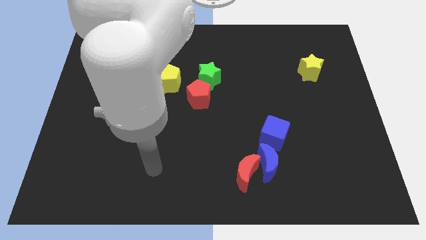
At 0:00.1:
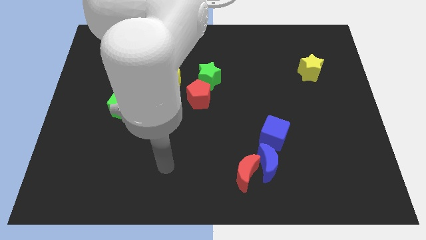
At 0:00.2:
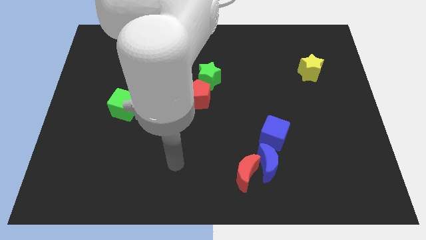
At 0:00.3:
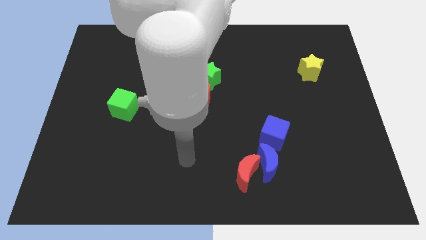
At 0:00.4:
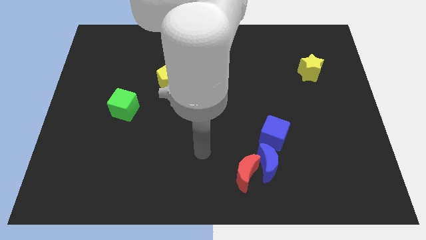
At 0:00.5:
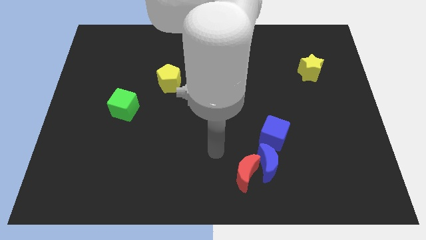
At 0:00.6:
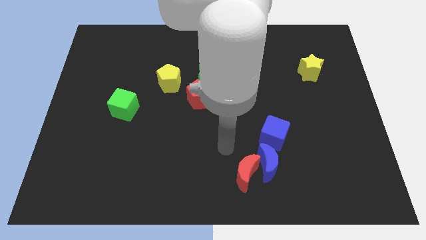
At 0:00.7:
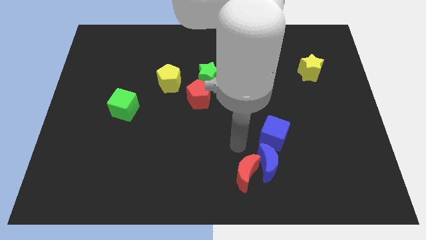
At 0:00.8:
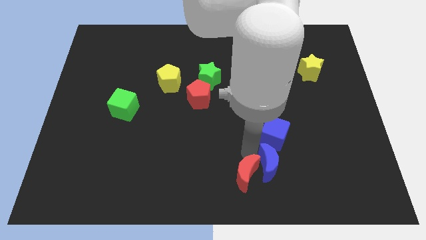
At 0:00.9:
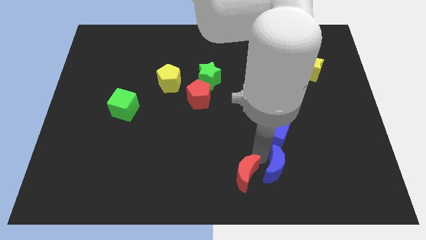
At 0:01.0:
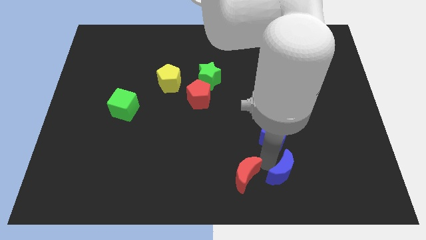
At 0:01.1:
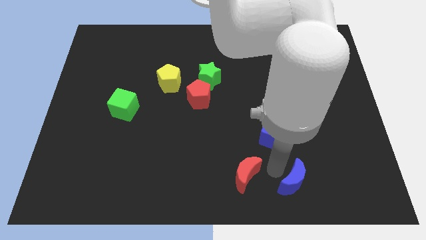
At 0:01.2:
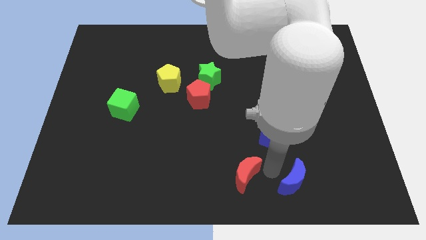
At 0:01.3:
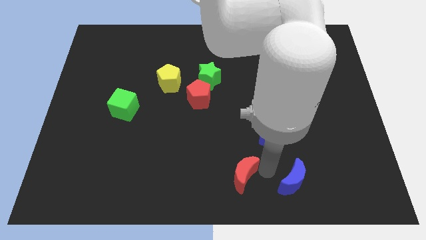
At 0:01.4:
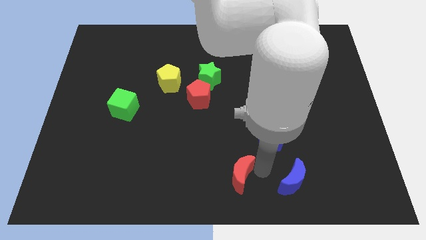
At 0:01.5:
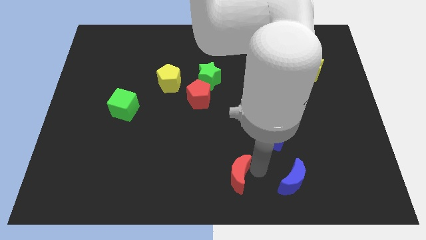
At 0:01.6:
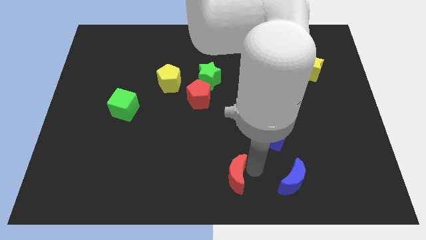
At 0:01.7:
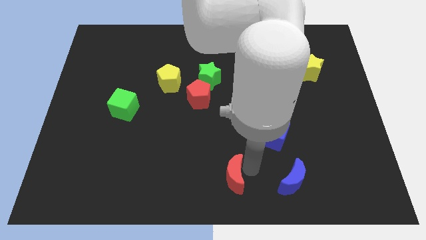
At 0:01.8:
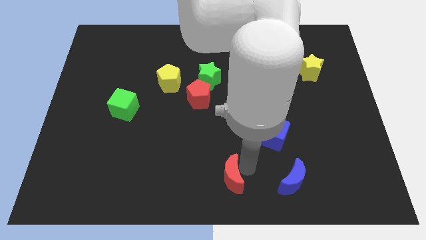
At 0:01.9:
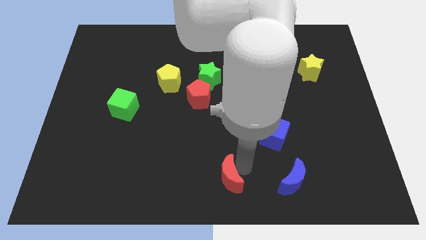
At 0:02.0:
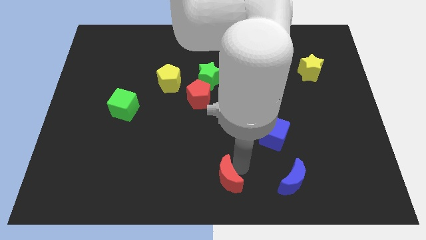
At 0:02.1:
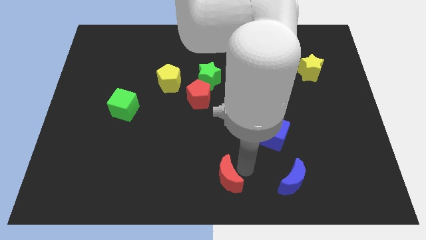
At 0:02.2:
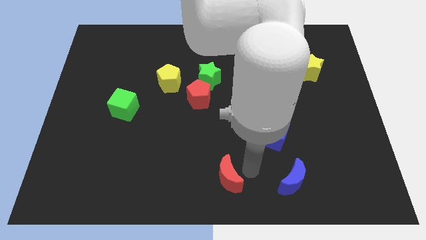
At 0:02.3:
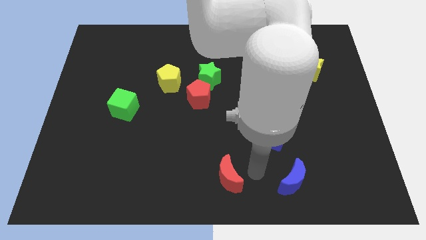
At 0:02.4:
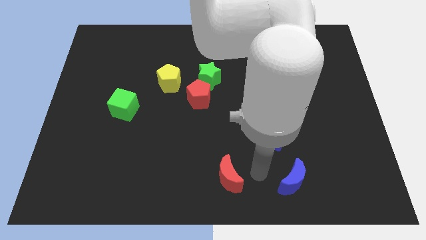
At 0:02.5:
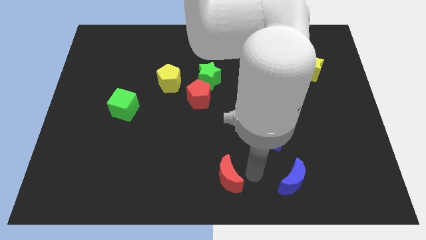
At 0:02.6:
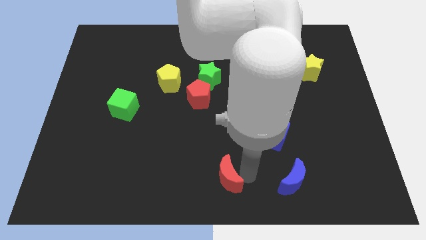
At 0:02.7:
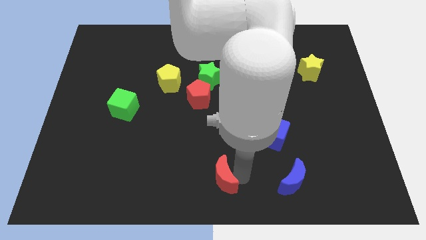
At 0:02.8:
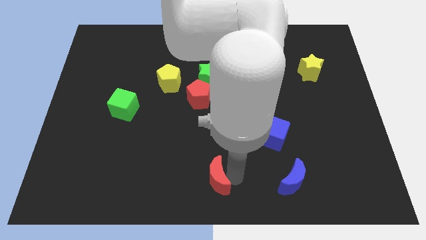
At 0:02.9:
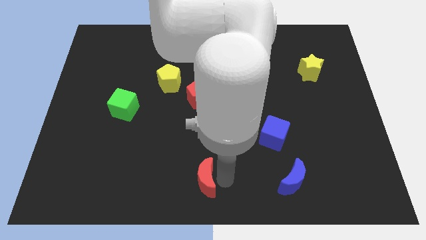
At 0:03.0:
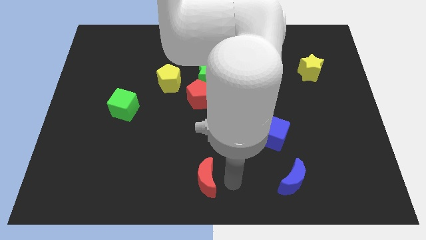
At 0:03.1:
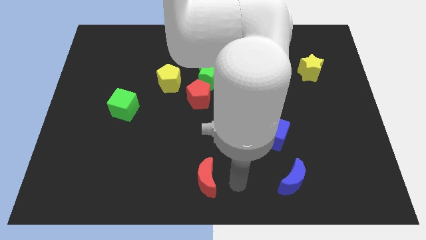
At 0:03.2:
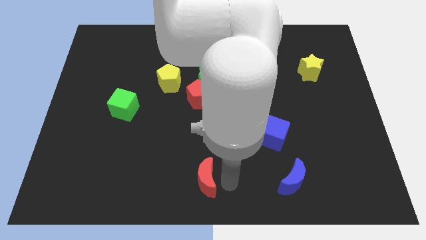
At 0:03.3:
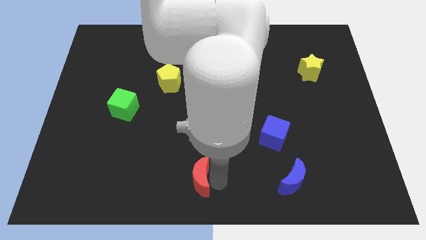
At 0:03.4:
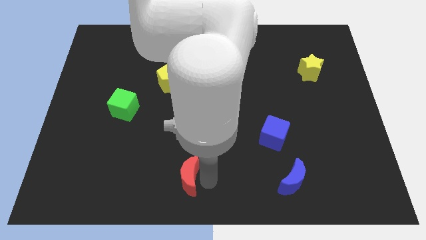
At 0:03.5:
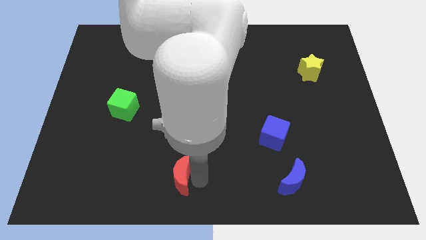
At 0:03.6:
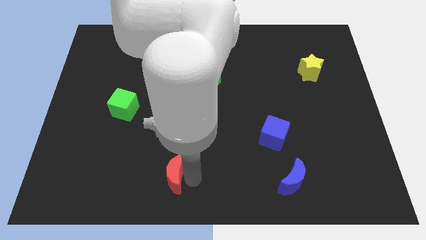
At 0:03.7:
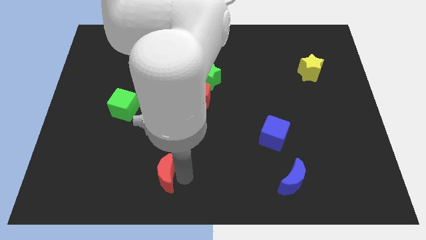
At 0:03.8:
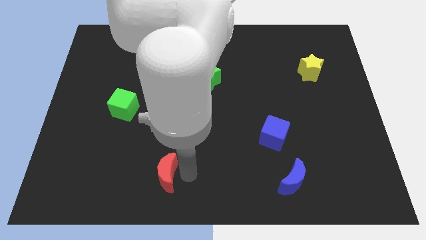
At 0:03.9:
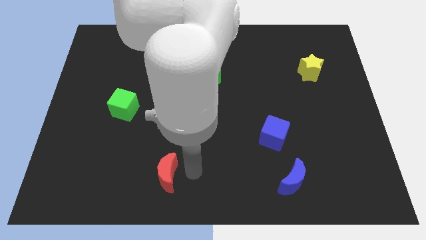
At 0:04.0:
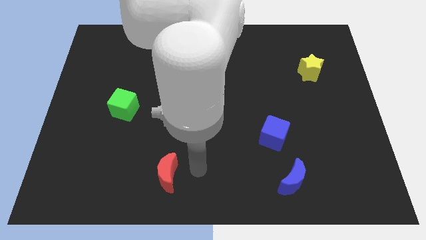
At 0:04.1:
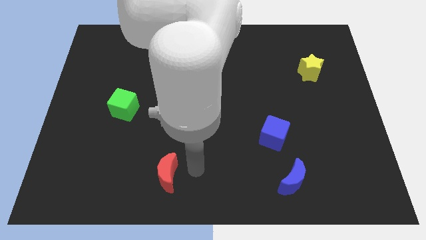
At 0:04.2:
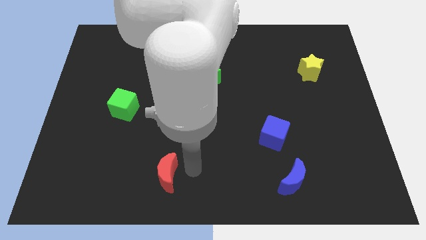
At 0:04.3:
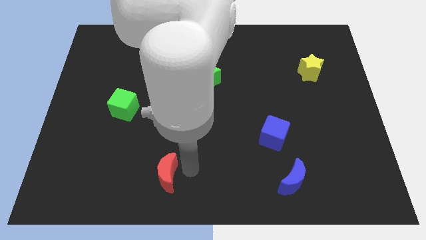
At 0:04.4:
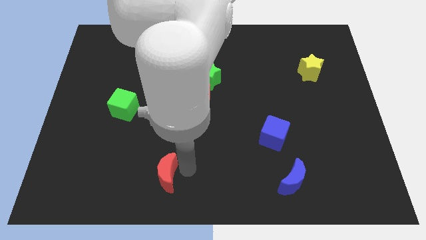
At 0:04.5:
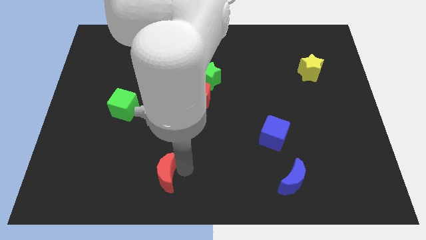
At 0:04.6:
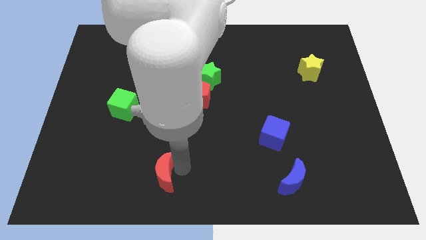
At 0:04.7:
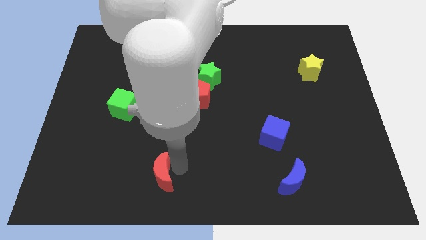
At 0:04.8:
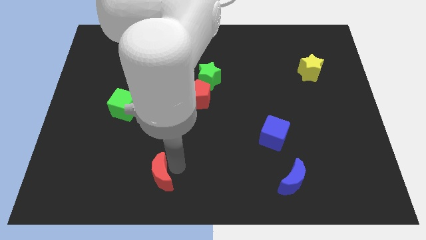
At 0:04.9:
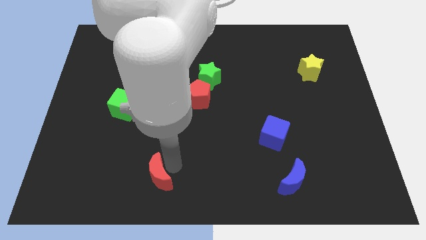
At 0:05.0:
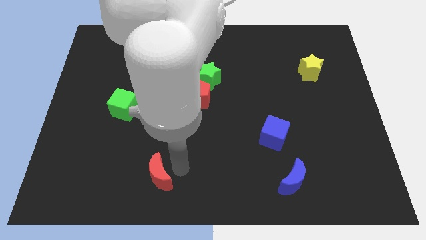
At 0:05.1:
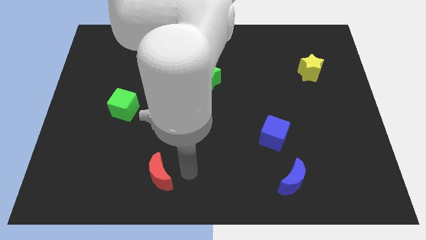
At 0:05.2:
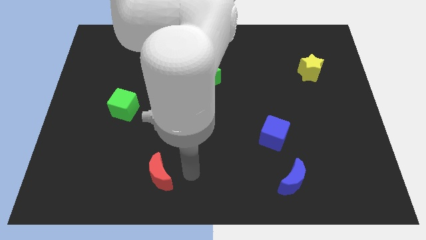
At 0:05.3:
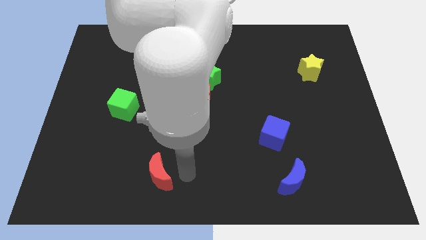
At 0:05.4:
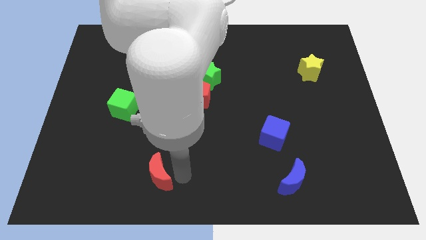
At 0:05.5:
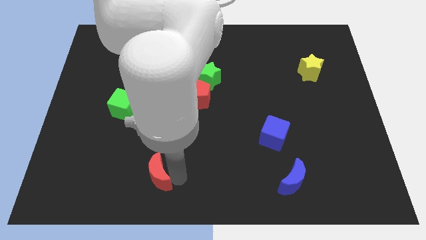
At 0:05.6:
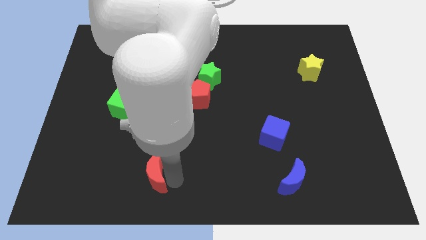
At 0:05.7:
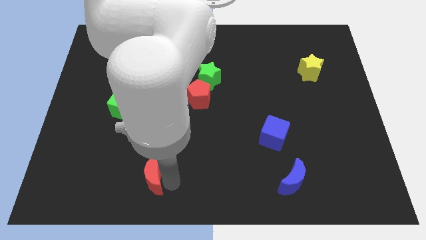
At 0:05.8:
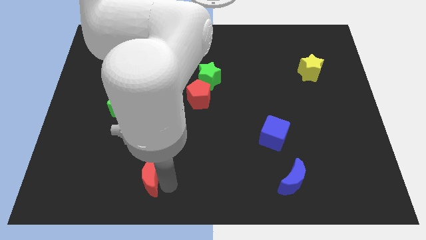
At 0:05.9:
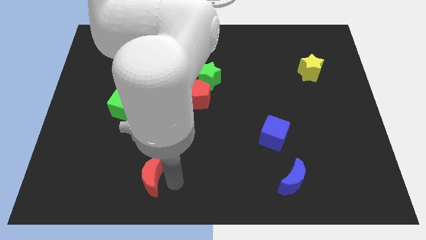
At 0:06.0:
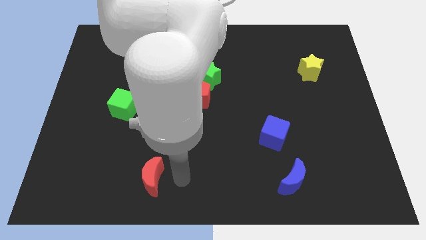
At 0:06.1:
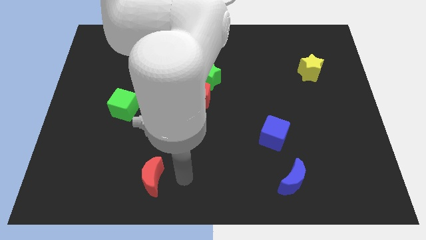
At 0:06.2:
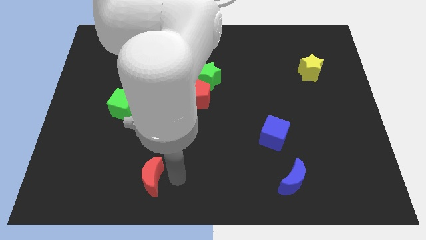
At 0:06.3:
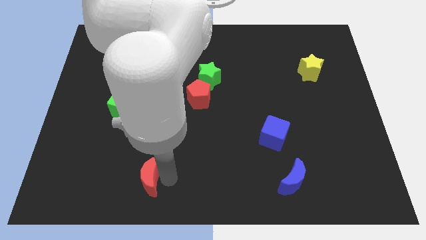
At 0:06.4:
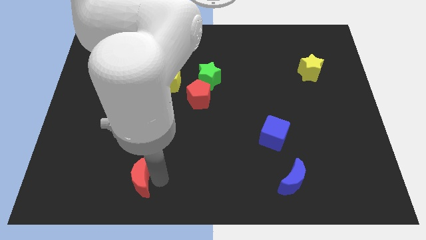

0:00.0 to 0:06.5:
push the red moon to the left

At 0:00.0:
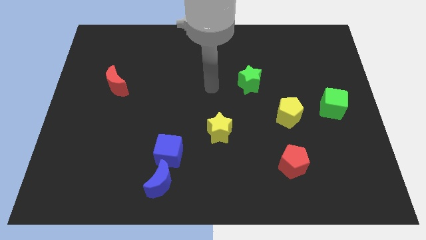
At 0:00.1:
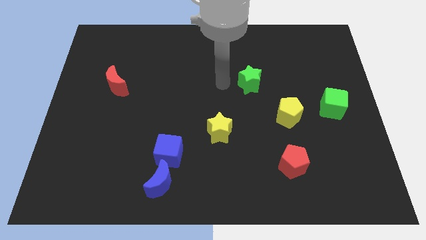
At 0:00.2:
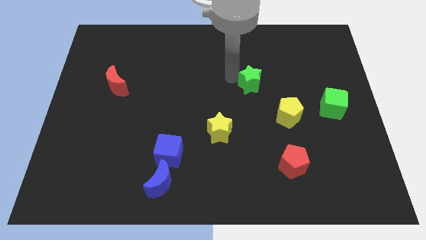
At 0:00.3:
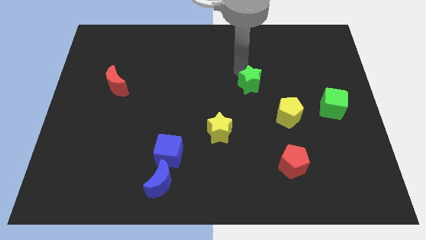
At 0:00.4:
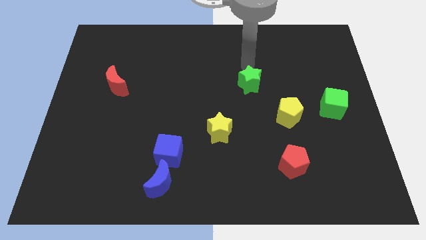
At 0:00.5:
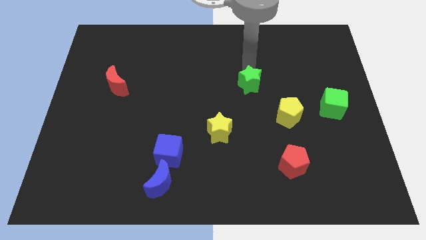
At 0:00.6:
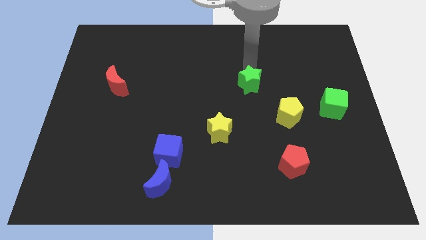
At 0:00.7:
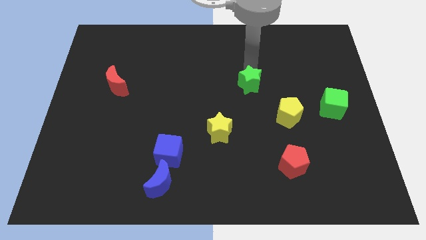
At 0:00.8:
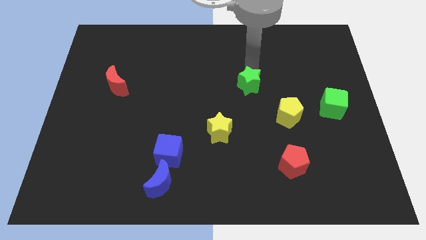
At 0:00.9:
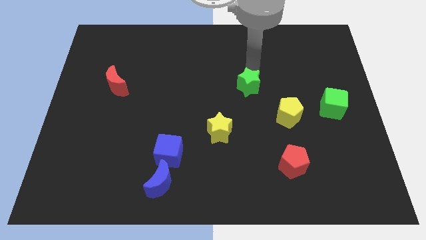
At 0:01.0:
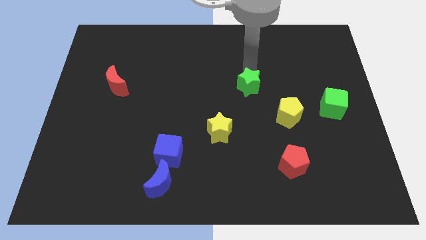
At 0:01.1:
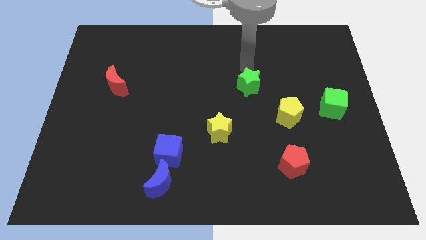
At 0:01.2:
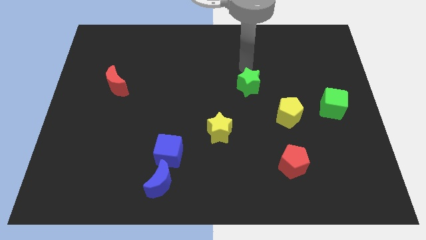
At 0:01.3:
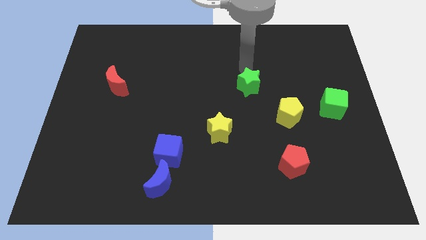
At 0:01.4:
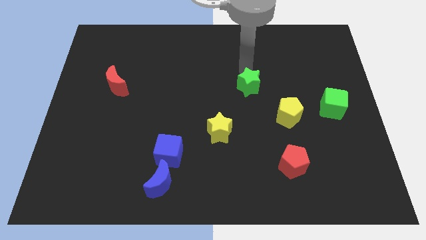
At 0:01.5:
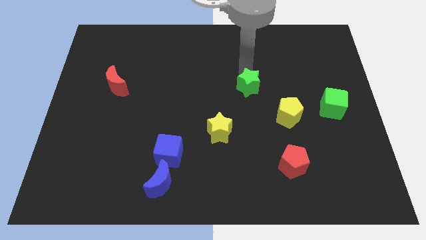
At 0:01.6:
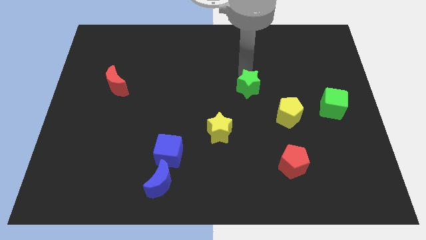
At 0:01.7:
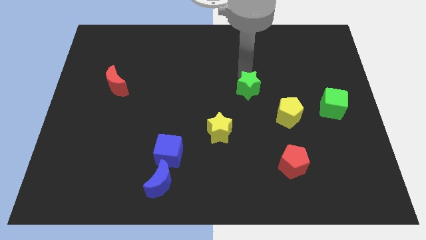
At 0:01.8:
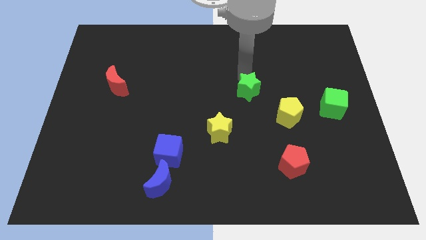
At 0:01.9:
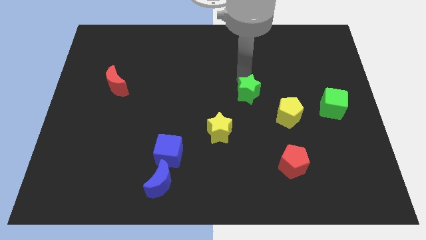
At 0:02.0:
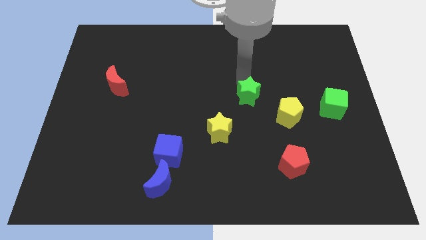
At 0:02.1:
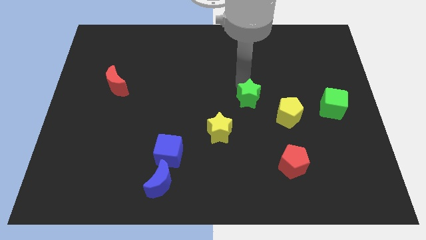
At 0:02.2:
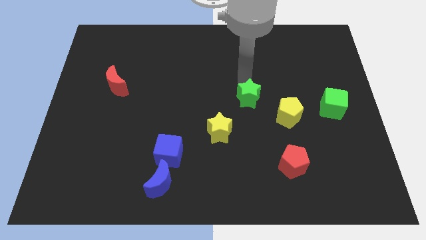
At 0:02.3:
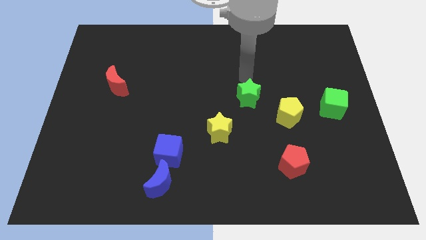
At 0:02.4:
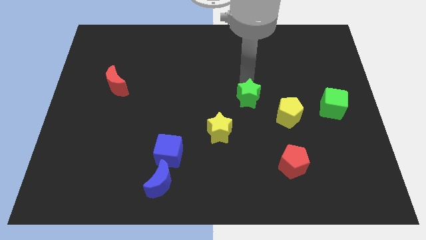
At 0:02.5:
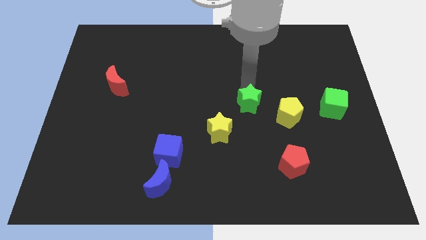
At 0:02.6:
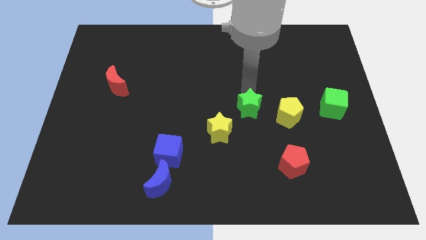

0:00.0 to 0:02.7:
slightly move the green star down
